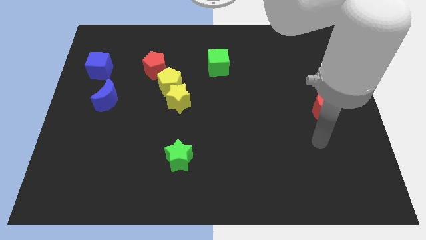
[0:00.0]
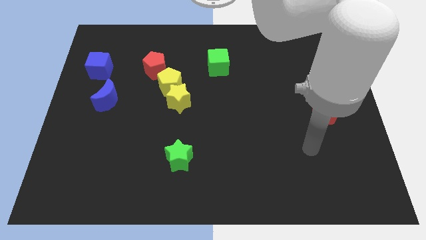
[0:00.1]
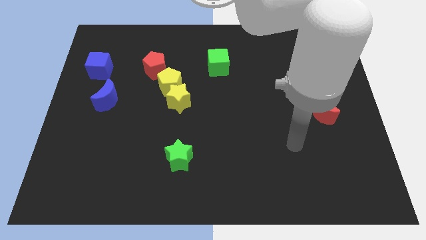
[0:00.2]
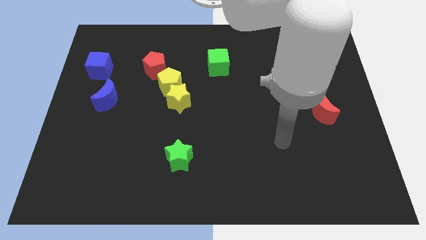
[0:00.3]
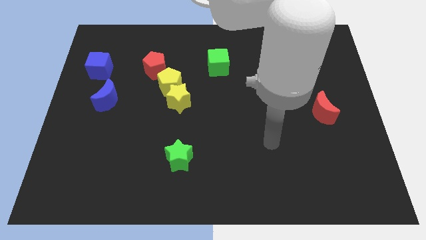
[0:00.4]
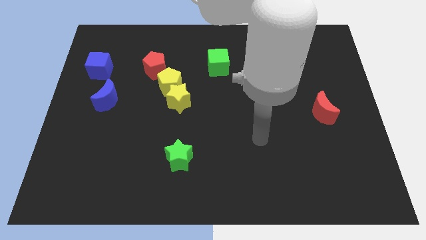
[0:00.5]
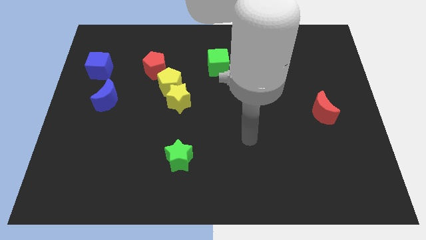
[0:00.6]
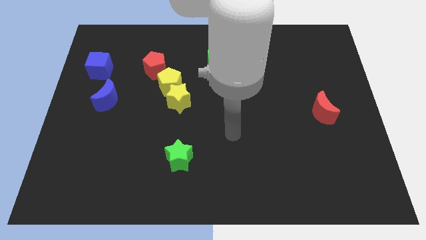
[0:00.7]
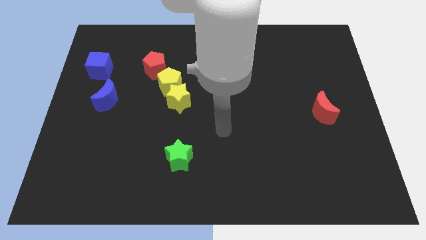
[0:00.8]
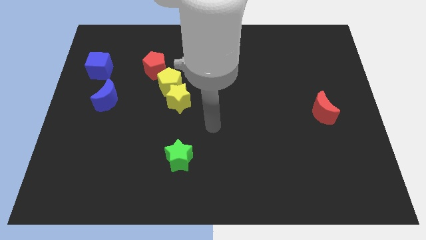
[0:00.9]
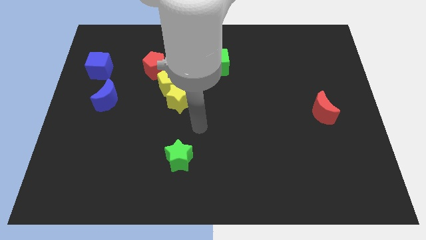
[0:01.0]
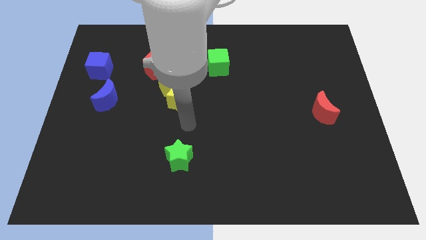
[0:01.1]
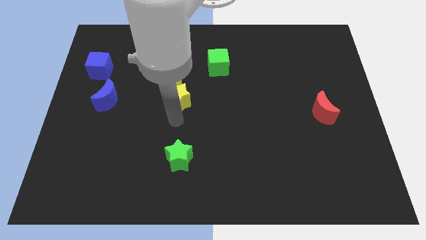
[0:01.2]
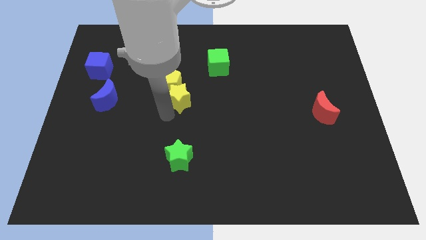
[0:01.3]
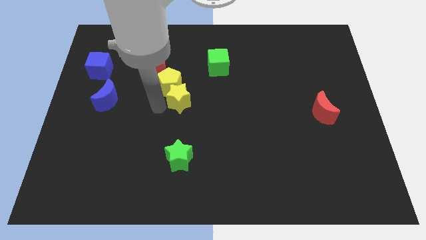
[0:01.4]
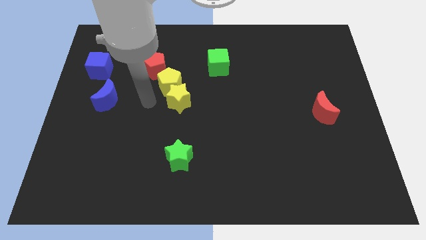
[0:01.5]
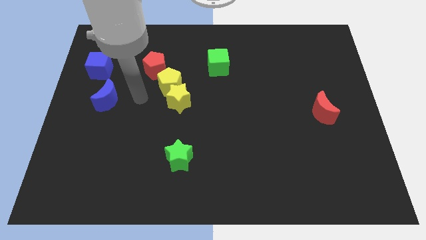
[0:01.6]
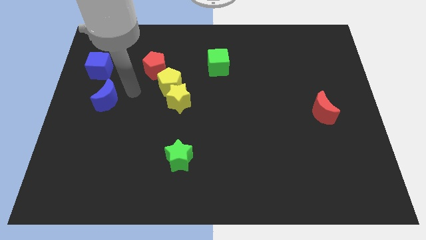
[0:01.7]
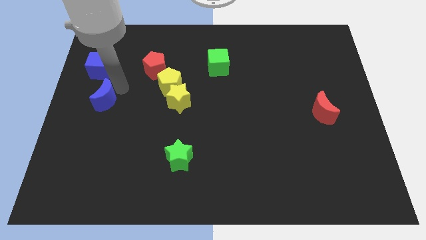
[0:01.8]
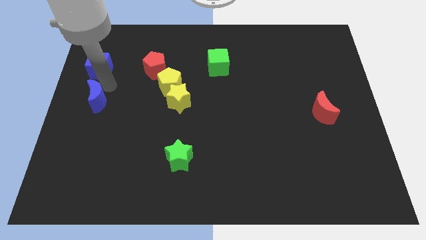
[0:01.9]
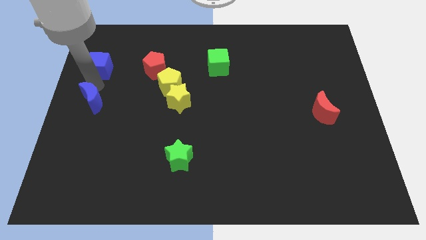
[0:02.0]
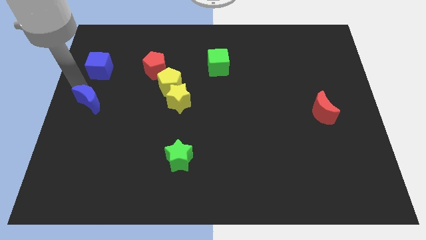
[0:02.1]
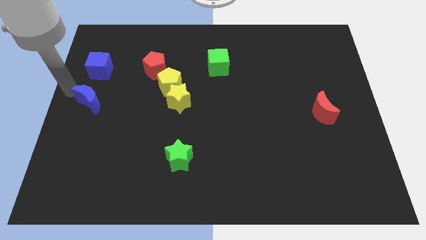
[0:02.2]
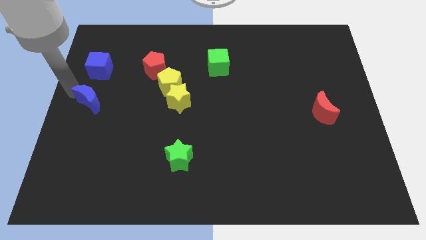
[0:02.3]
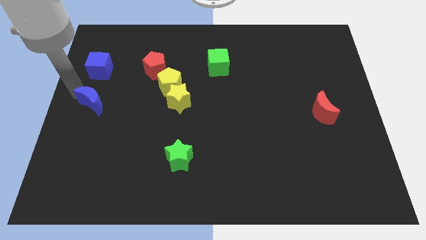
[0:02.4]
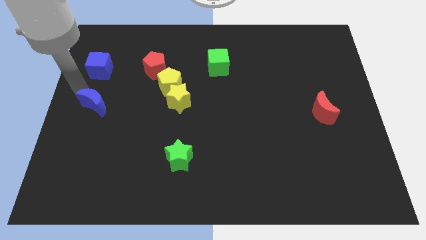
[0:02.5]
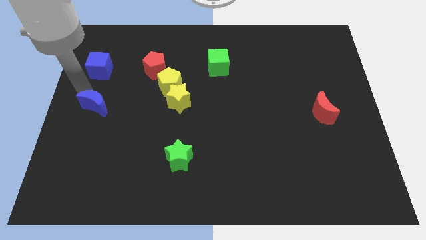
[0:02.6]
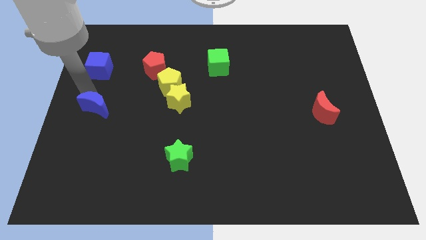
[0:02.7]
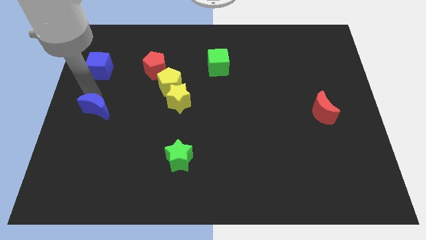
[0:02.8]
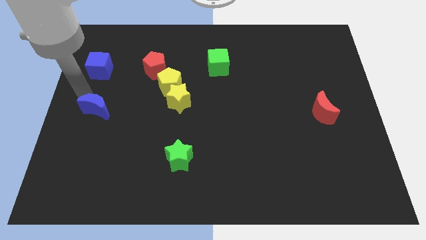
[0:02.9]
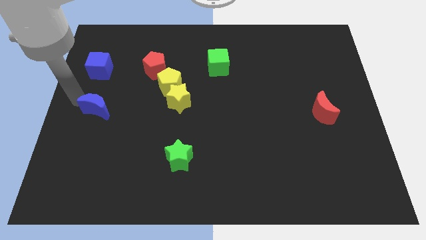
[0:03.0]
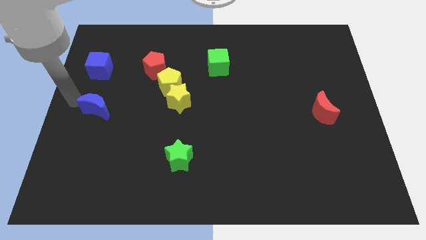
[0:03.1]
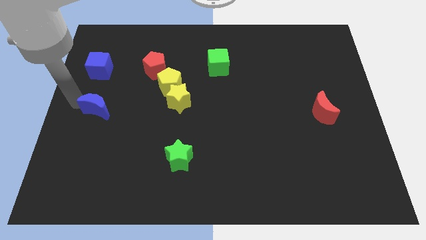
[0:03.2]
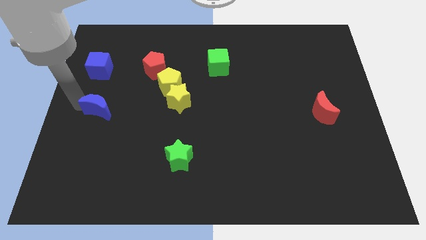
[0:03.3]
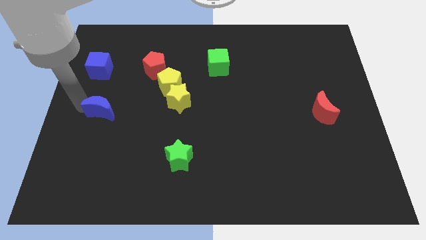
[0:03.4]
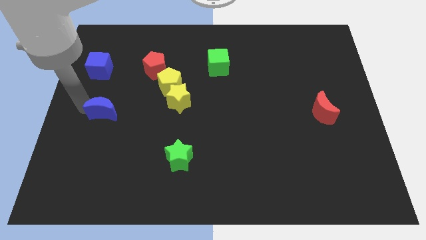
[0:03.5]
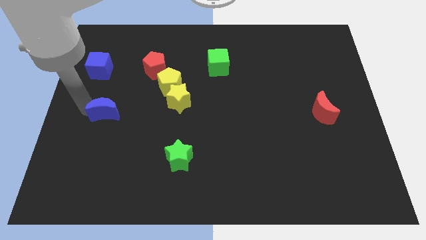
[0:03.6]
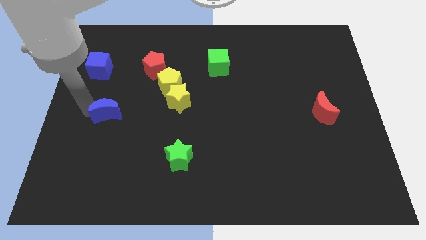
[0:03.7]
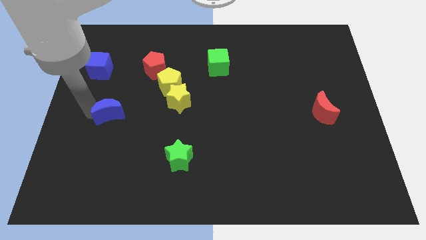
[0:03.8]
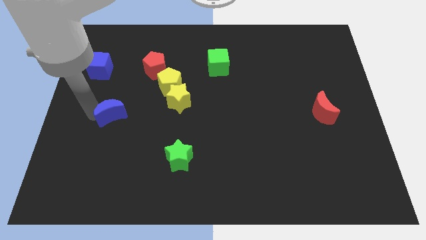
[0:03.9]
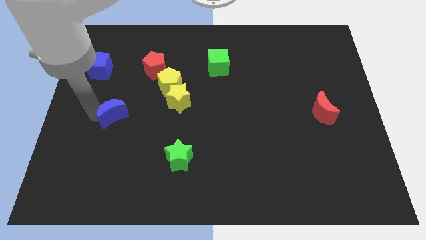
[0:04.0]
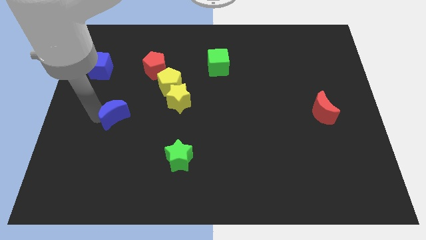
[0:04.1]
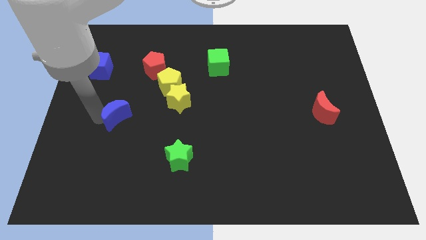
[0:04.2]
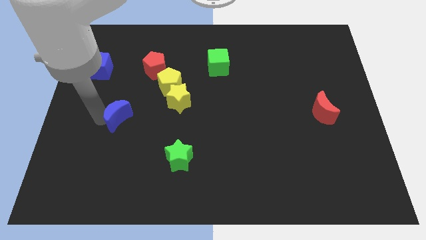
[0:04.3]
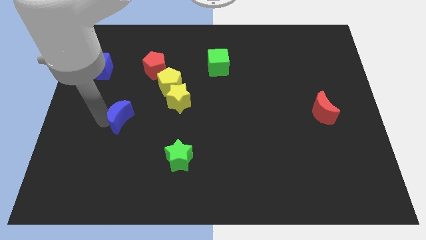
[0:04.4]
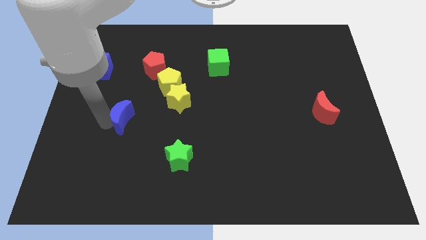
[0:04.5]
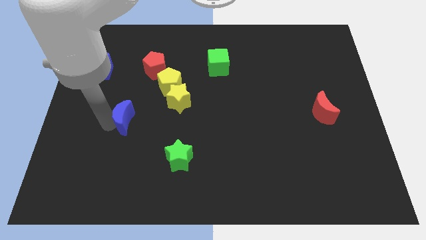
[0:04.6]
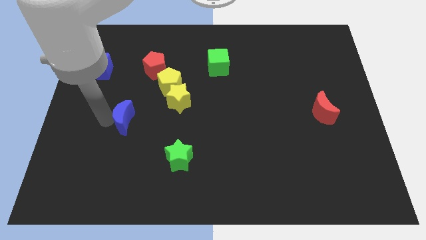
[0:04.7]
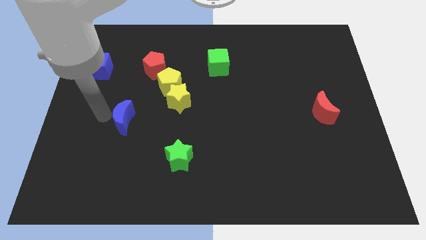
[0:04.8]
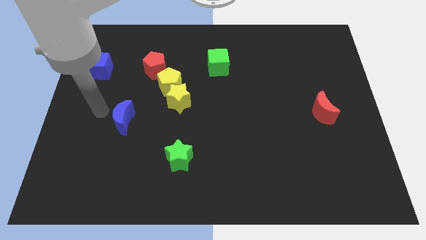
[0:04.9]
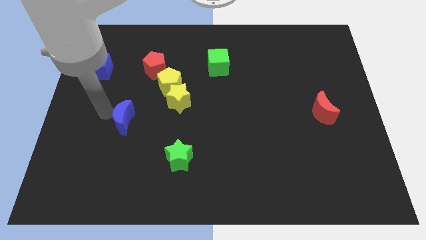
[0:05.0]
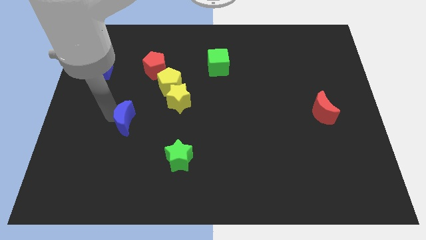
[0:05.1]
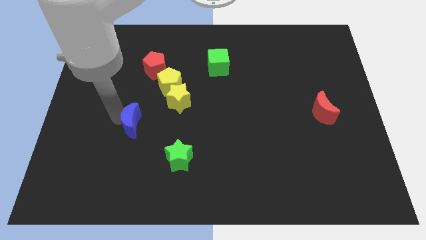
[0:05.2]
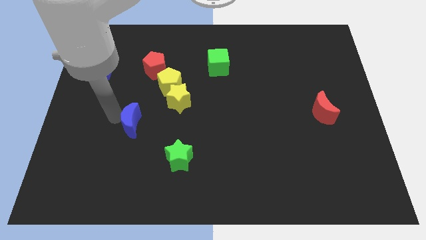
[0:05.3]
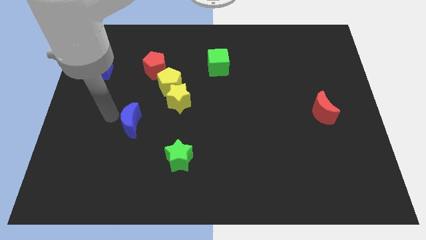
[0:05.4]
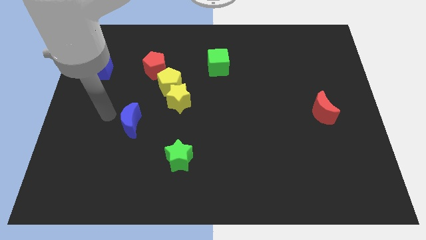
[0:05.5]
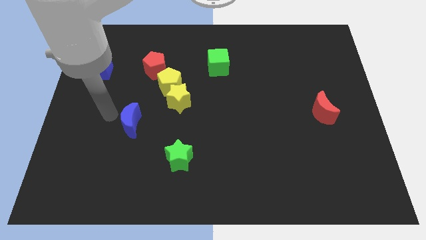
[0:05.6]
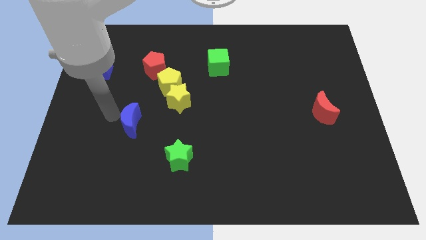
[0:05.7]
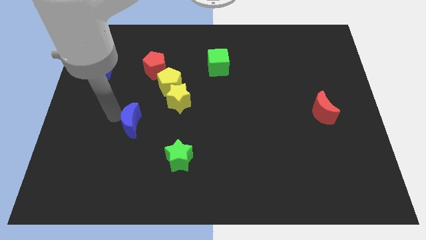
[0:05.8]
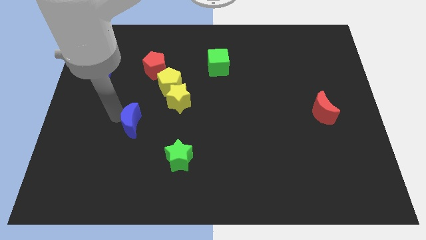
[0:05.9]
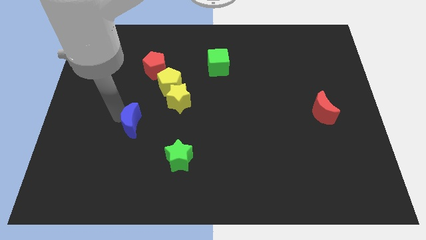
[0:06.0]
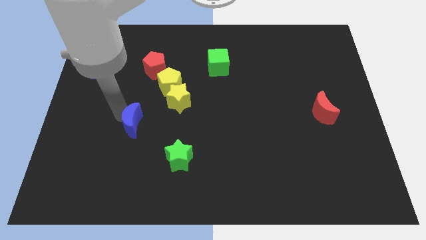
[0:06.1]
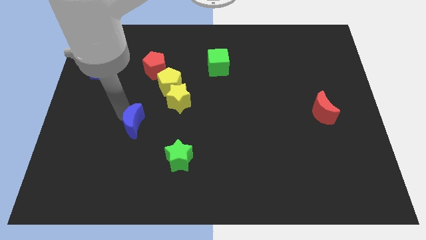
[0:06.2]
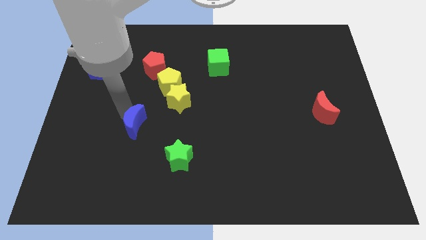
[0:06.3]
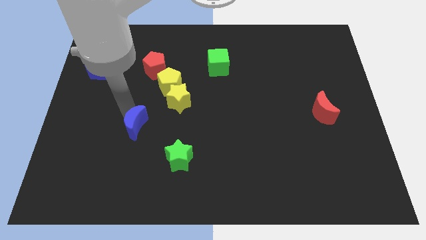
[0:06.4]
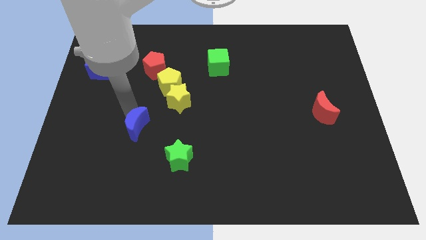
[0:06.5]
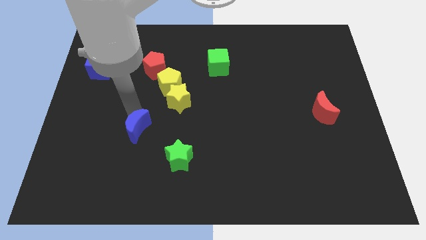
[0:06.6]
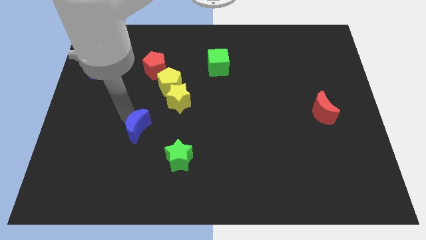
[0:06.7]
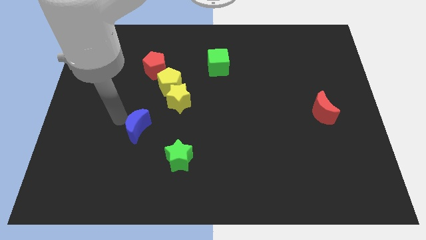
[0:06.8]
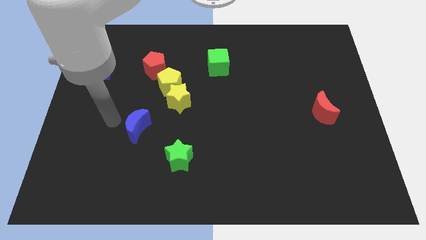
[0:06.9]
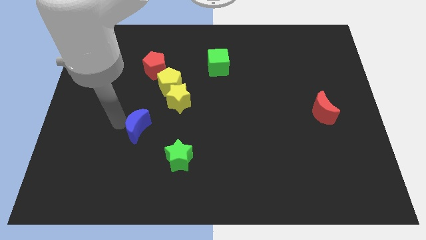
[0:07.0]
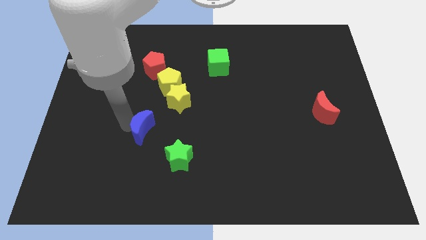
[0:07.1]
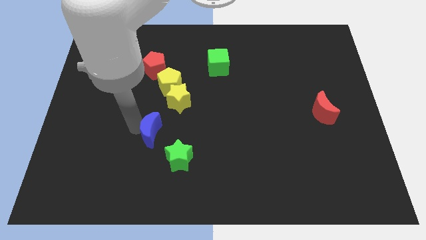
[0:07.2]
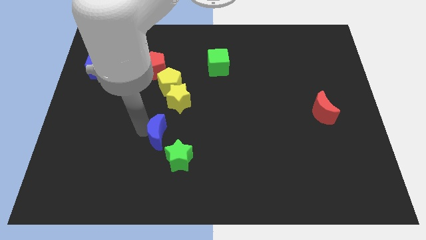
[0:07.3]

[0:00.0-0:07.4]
slide the blue moon to the bottom side of the yellow star

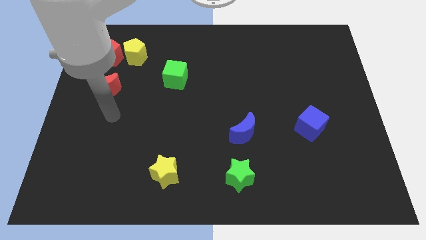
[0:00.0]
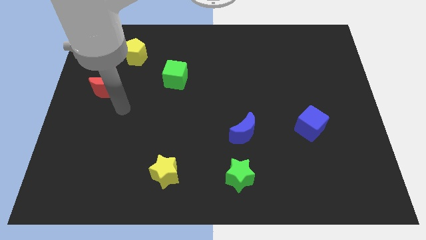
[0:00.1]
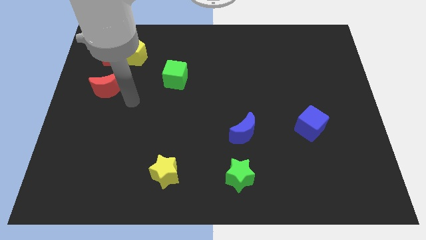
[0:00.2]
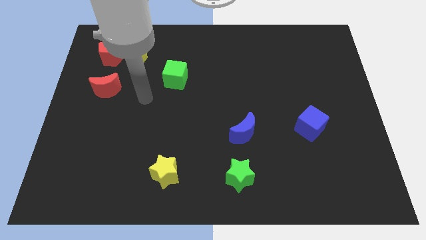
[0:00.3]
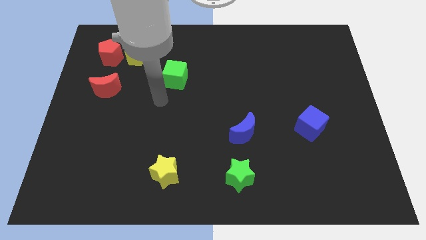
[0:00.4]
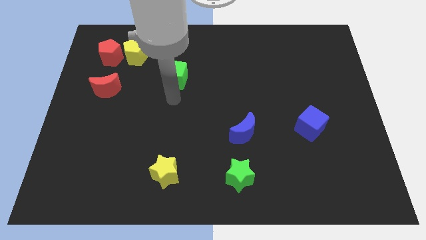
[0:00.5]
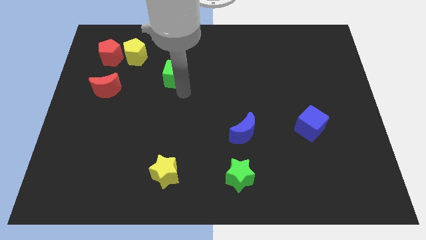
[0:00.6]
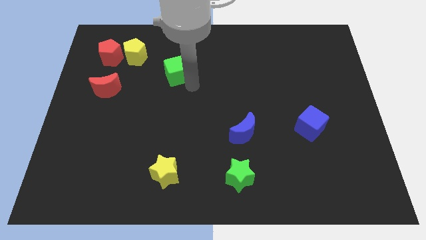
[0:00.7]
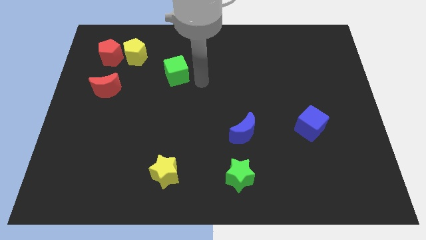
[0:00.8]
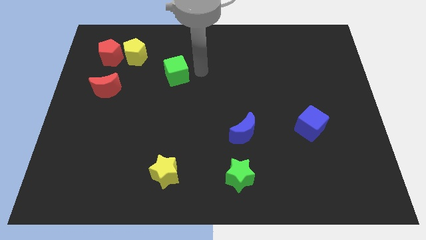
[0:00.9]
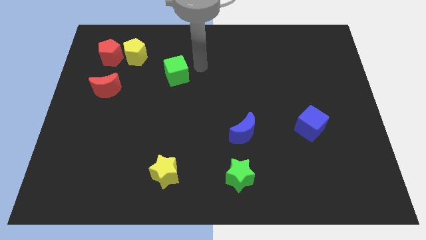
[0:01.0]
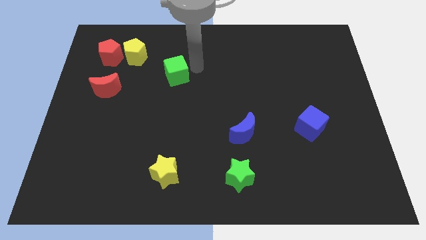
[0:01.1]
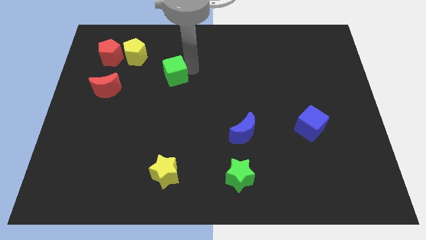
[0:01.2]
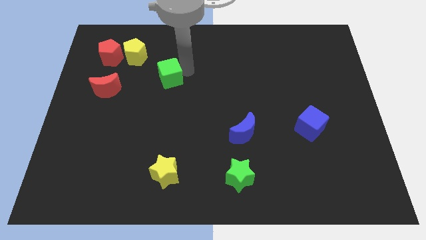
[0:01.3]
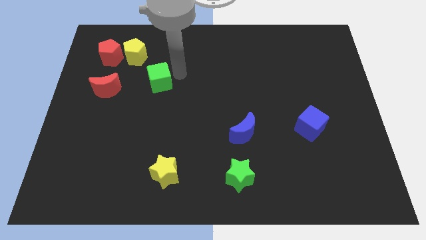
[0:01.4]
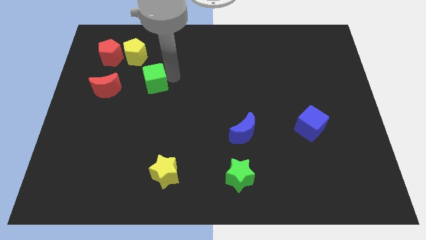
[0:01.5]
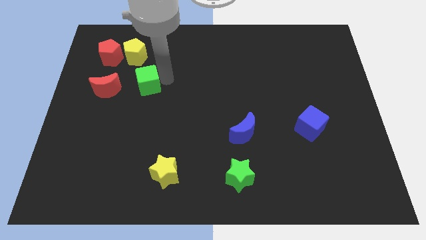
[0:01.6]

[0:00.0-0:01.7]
push the green cube to the bottom of the yellow pentagon
